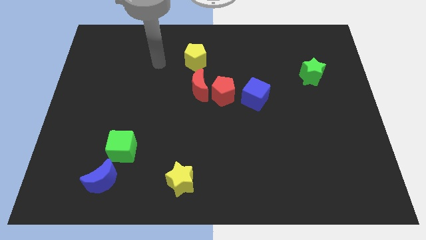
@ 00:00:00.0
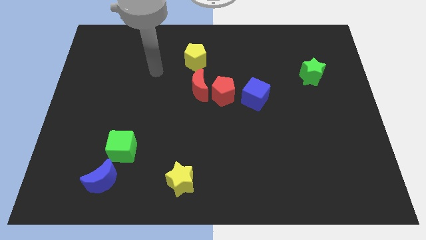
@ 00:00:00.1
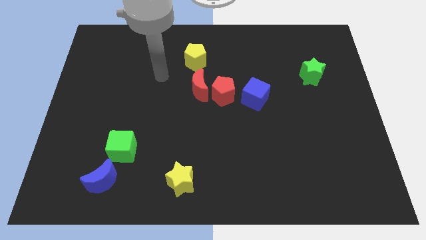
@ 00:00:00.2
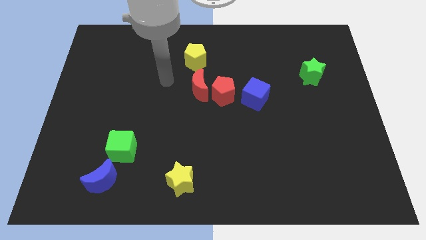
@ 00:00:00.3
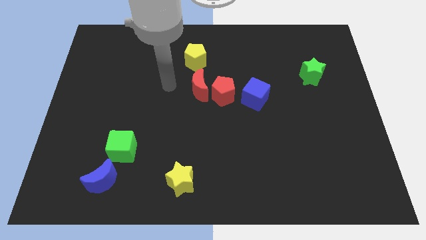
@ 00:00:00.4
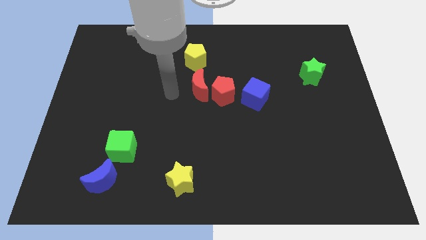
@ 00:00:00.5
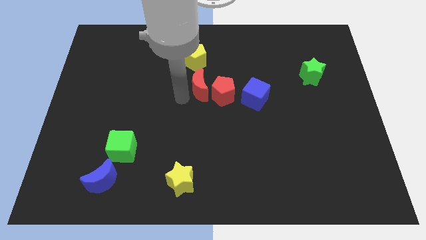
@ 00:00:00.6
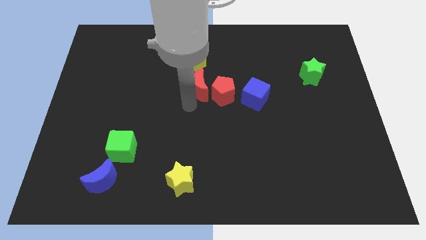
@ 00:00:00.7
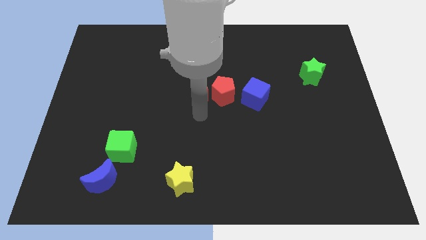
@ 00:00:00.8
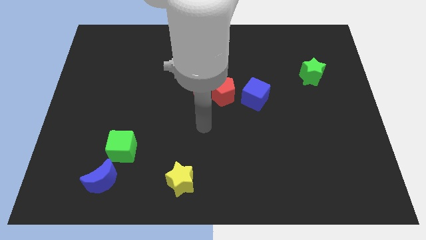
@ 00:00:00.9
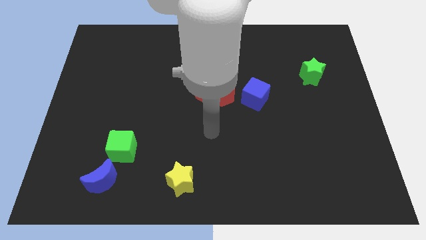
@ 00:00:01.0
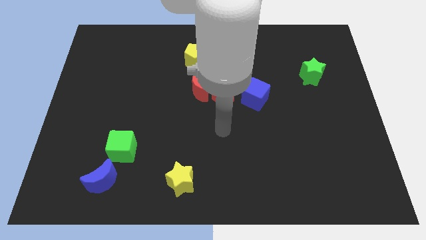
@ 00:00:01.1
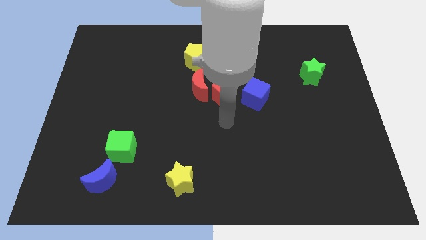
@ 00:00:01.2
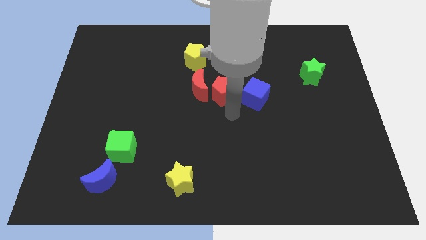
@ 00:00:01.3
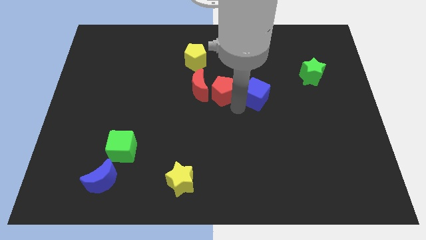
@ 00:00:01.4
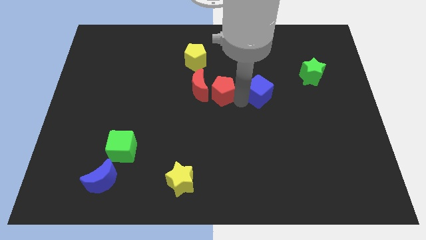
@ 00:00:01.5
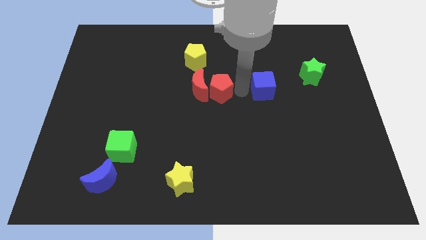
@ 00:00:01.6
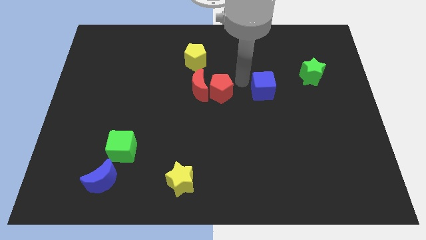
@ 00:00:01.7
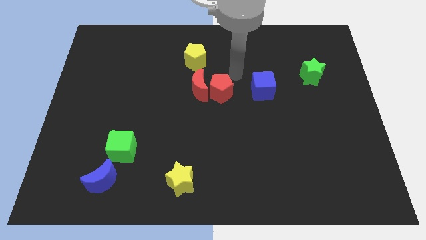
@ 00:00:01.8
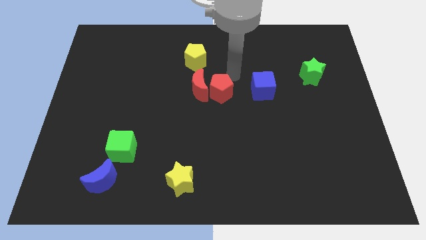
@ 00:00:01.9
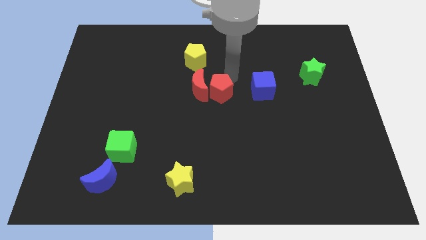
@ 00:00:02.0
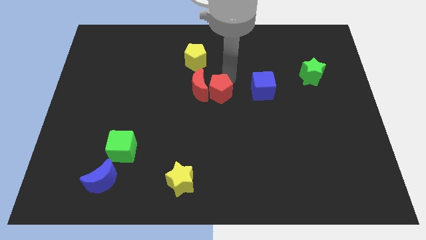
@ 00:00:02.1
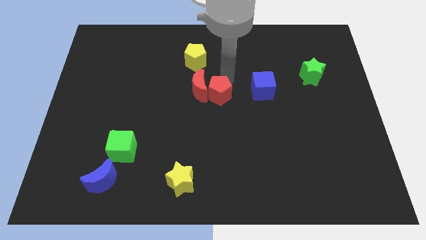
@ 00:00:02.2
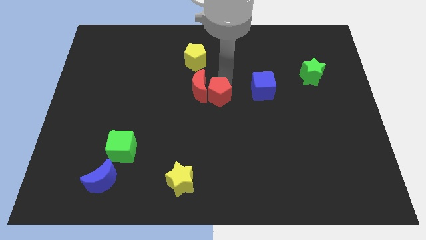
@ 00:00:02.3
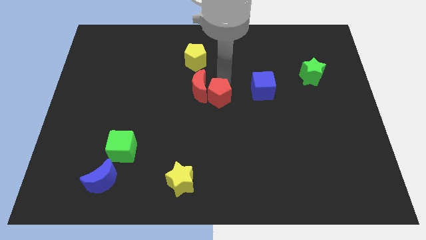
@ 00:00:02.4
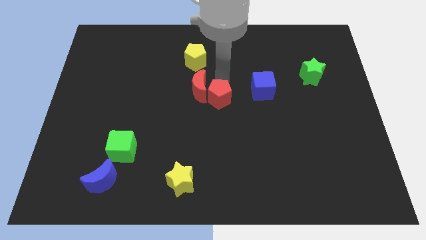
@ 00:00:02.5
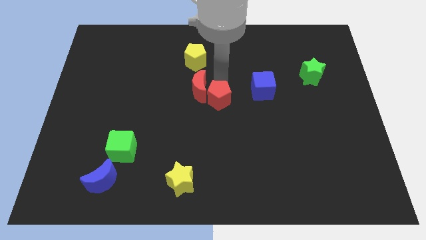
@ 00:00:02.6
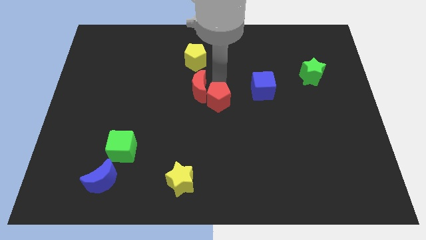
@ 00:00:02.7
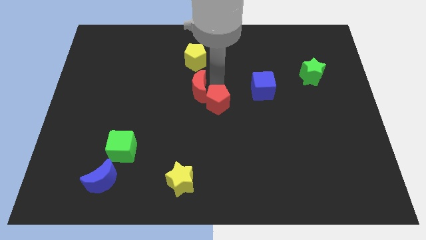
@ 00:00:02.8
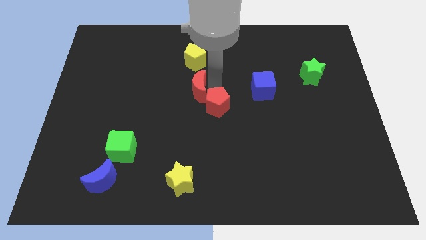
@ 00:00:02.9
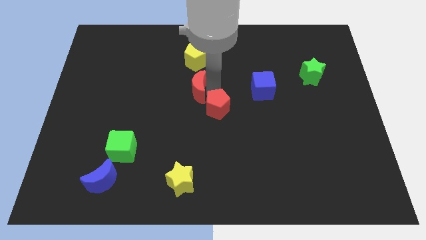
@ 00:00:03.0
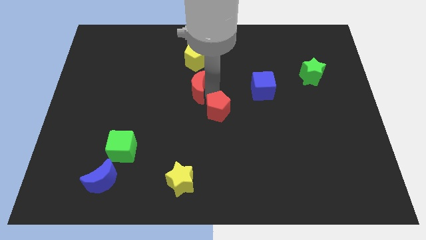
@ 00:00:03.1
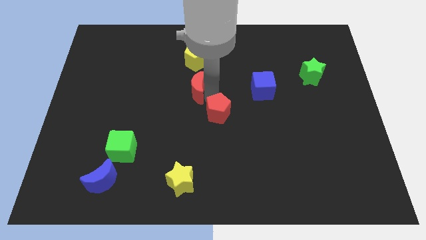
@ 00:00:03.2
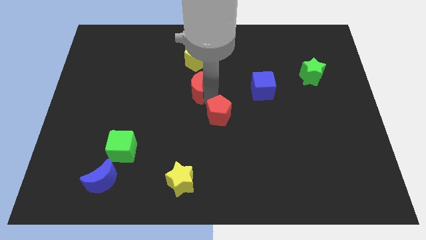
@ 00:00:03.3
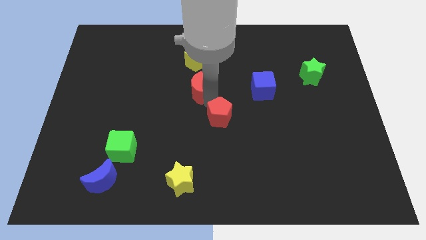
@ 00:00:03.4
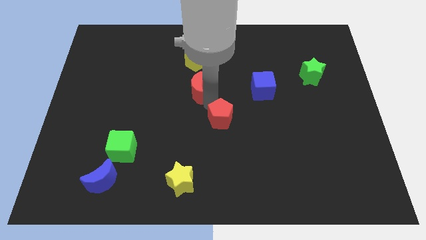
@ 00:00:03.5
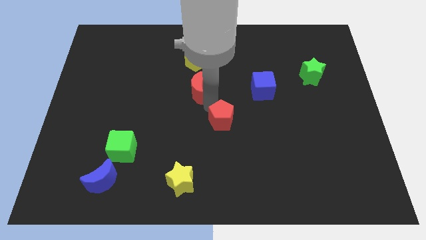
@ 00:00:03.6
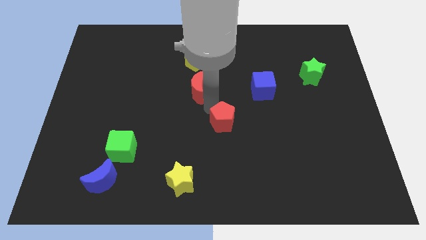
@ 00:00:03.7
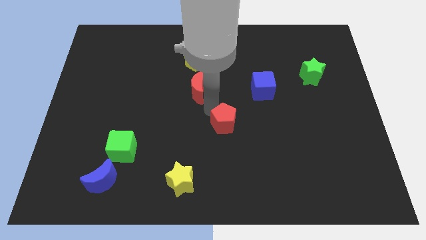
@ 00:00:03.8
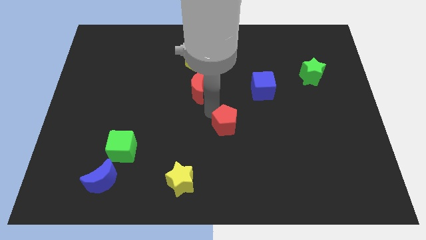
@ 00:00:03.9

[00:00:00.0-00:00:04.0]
pull the red pentagon apart from the red moon and blue cube

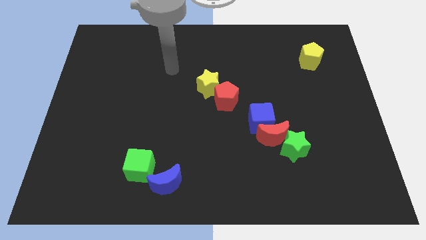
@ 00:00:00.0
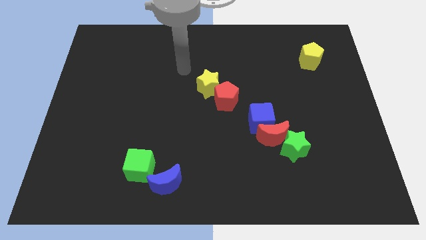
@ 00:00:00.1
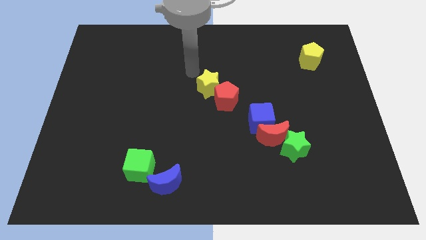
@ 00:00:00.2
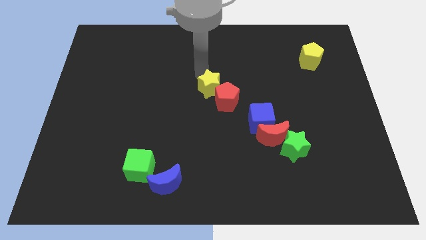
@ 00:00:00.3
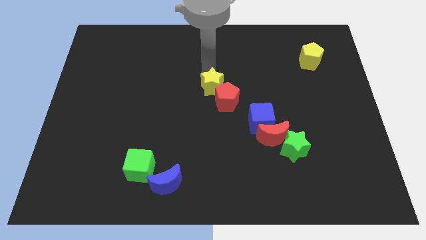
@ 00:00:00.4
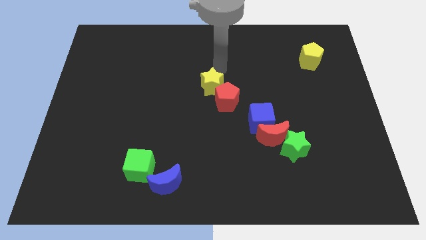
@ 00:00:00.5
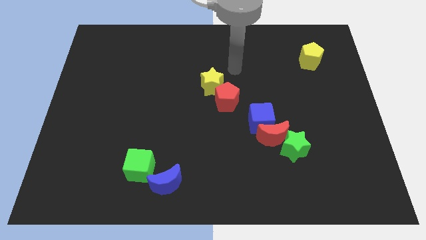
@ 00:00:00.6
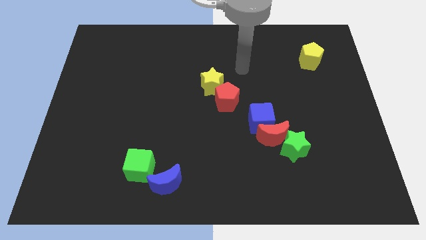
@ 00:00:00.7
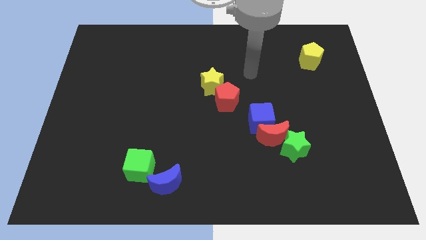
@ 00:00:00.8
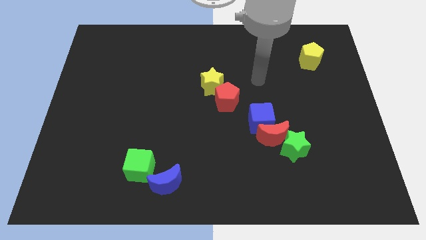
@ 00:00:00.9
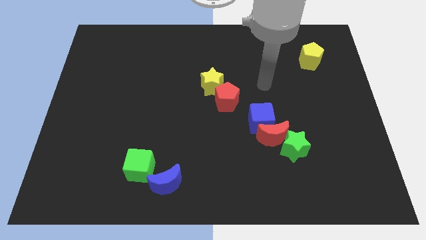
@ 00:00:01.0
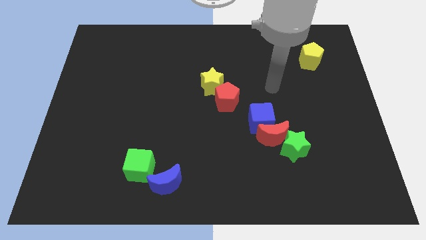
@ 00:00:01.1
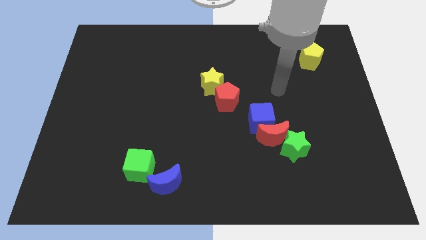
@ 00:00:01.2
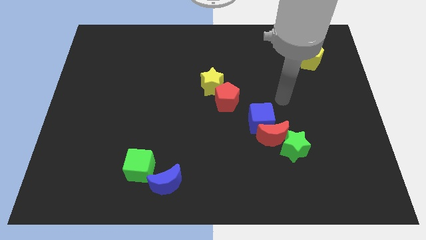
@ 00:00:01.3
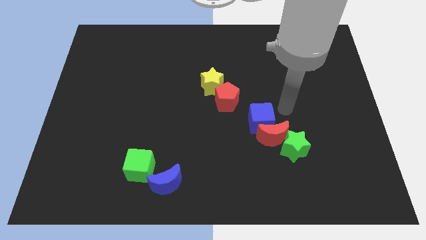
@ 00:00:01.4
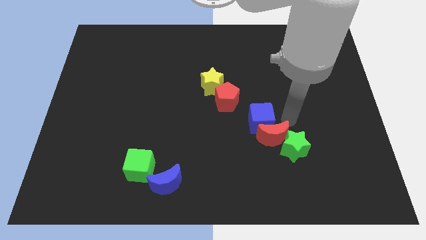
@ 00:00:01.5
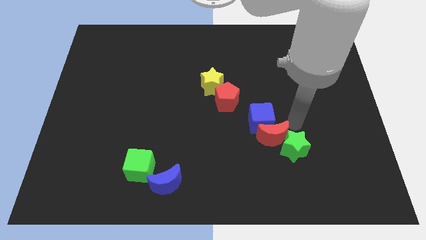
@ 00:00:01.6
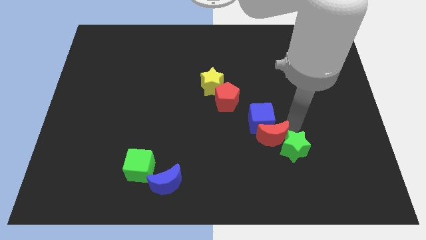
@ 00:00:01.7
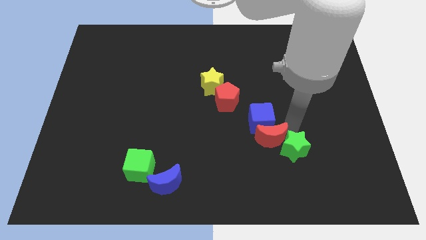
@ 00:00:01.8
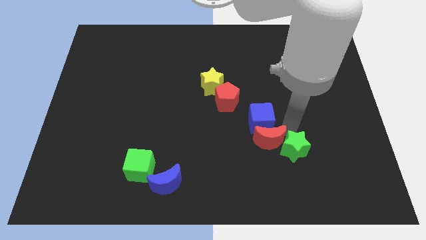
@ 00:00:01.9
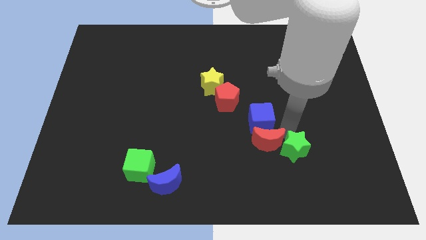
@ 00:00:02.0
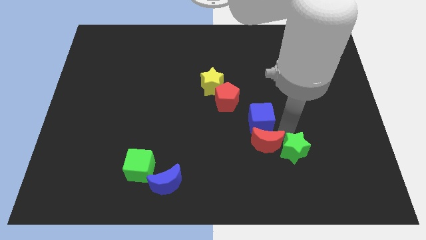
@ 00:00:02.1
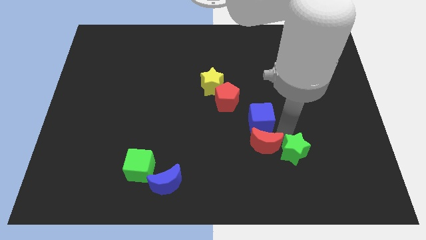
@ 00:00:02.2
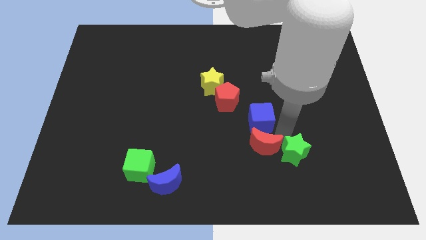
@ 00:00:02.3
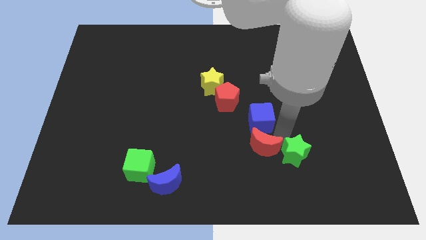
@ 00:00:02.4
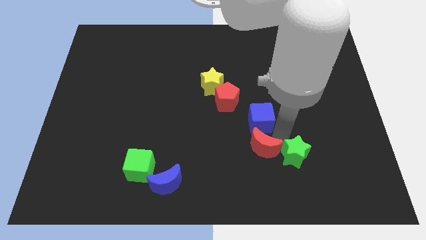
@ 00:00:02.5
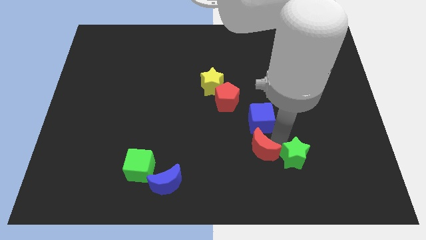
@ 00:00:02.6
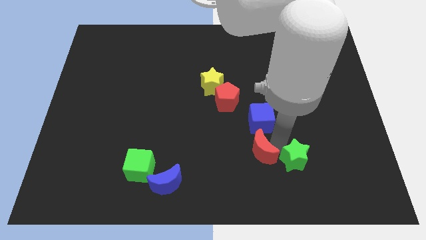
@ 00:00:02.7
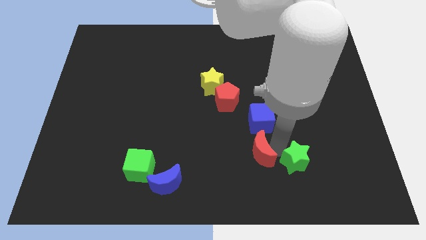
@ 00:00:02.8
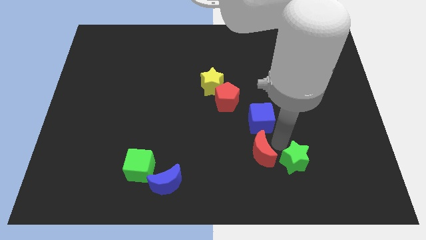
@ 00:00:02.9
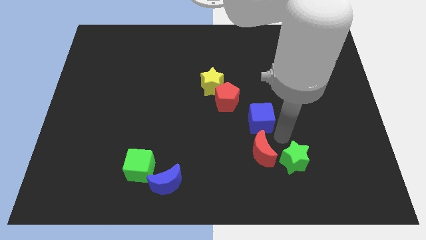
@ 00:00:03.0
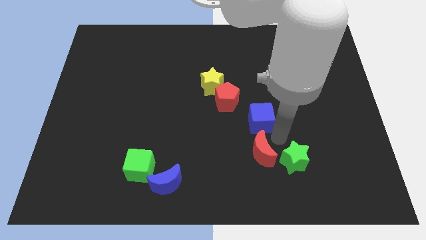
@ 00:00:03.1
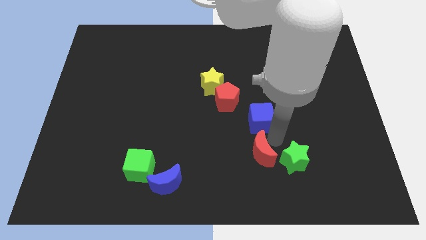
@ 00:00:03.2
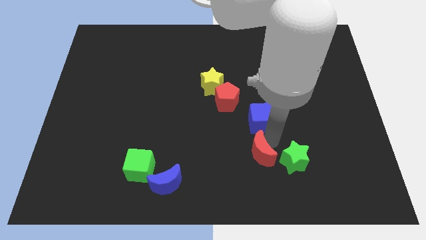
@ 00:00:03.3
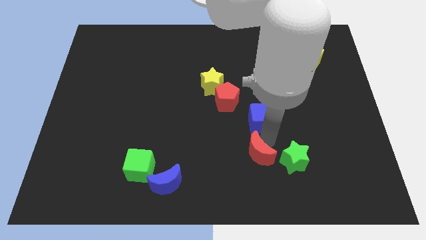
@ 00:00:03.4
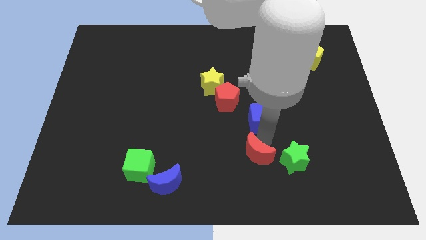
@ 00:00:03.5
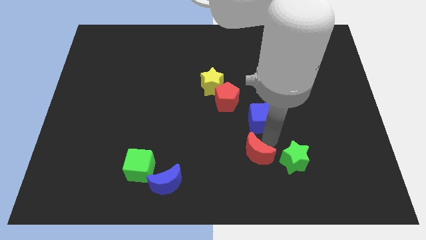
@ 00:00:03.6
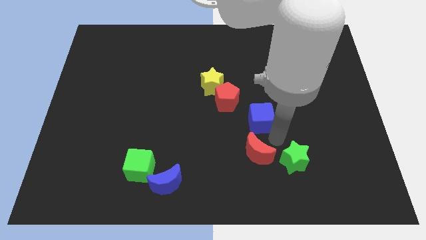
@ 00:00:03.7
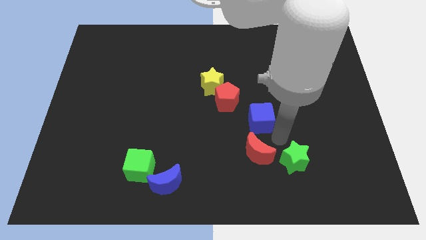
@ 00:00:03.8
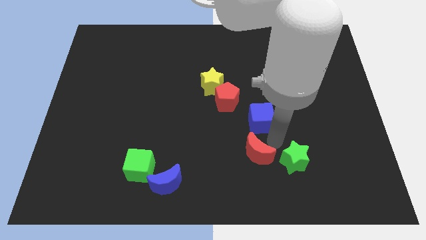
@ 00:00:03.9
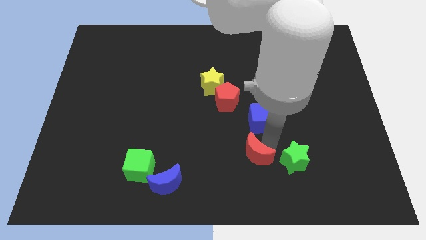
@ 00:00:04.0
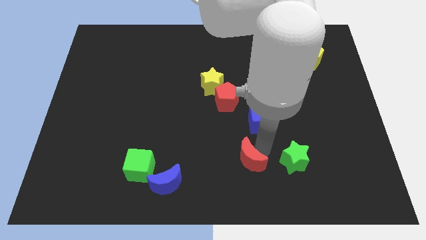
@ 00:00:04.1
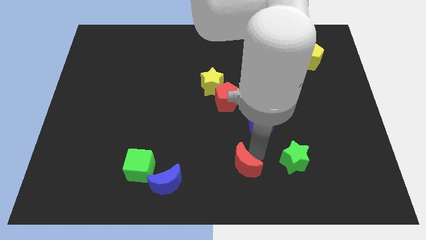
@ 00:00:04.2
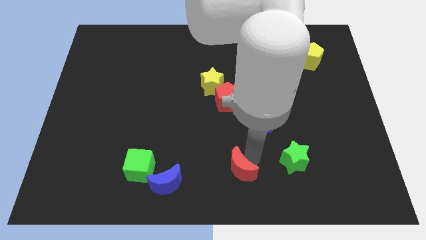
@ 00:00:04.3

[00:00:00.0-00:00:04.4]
pull the red moon apart from the blue cube and green star

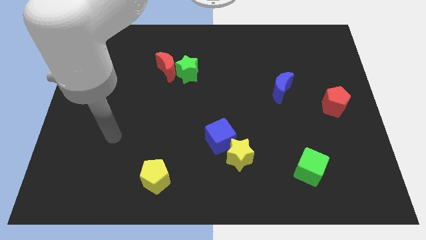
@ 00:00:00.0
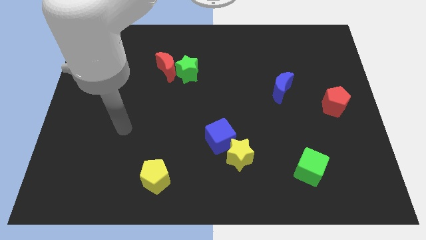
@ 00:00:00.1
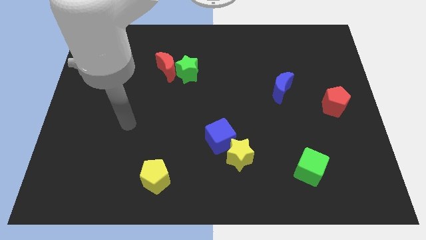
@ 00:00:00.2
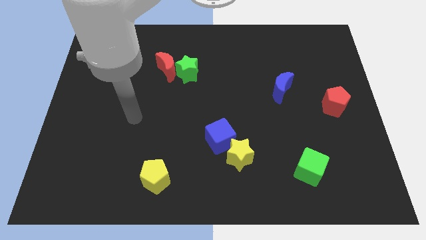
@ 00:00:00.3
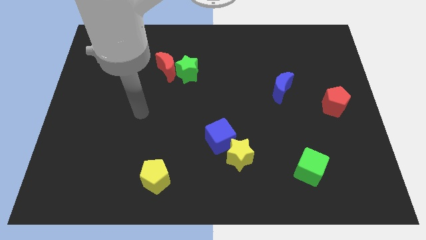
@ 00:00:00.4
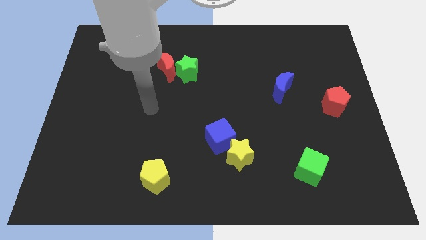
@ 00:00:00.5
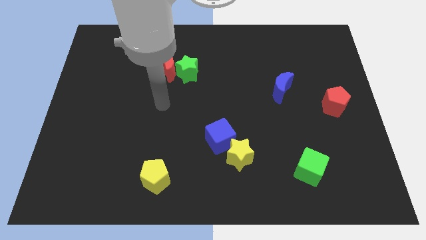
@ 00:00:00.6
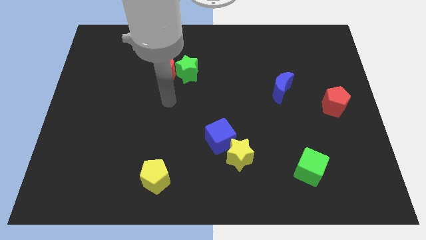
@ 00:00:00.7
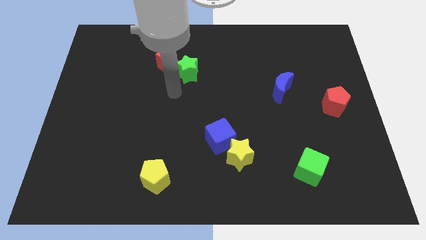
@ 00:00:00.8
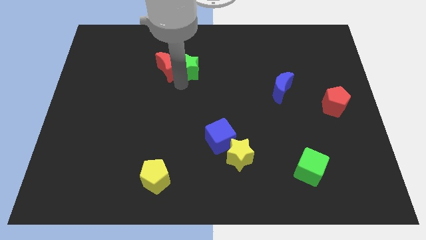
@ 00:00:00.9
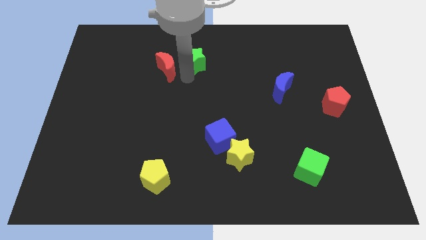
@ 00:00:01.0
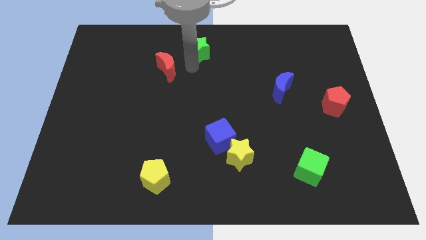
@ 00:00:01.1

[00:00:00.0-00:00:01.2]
move the red moon away from the green star
